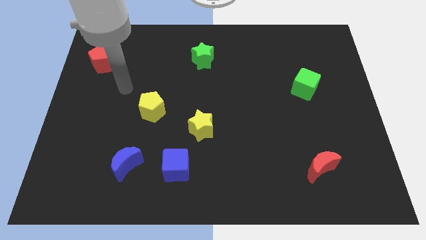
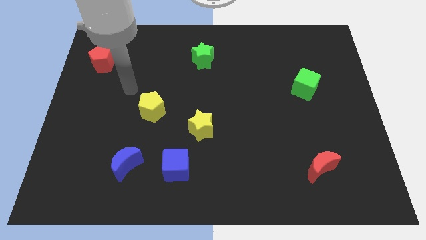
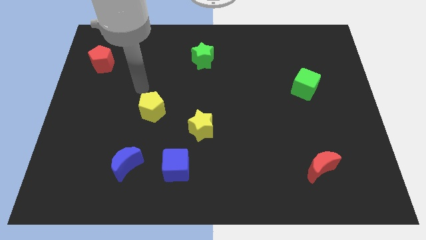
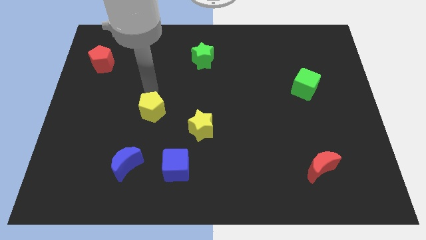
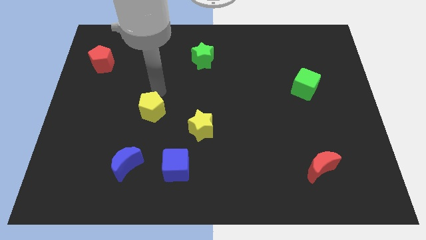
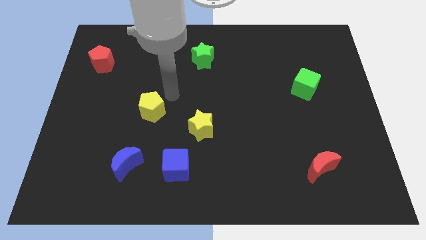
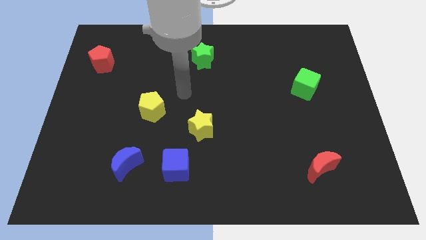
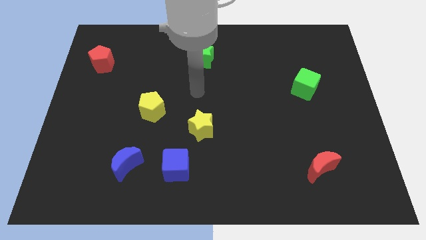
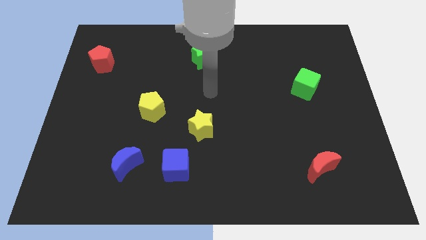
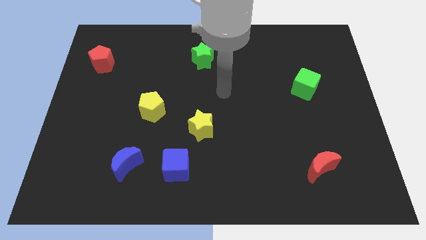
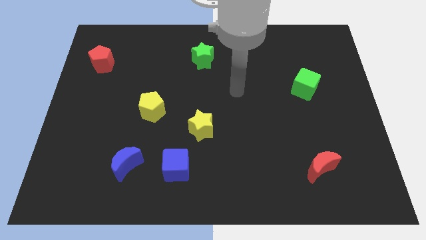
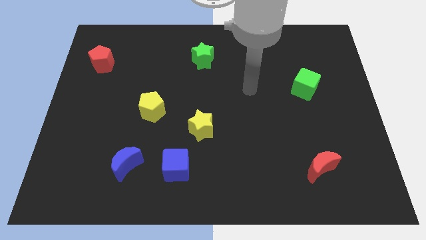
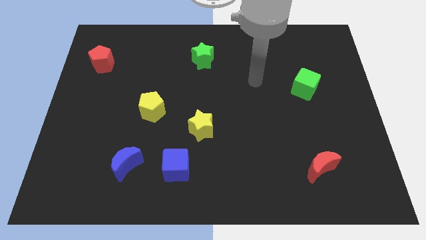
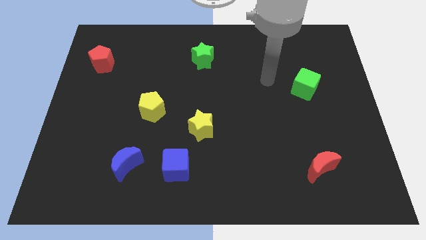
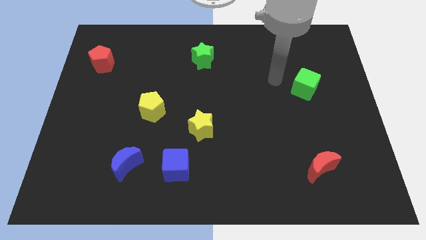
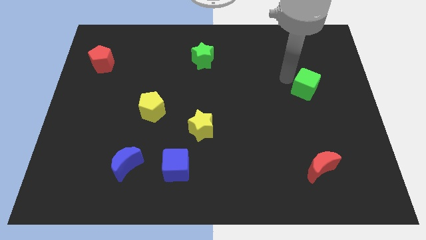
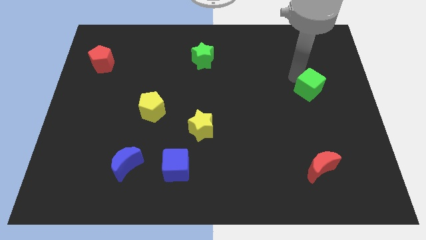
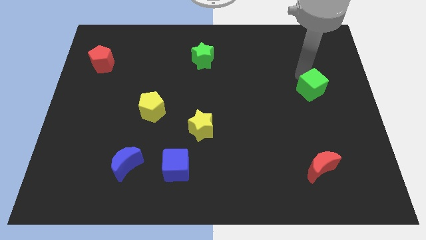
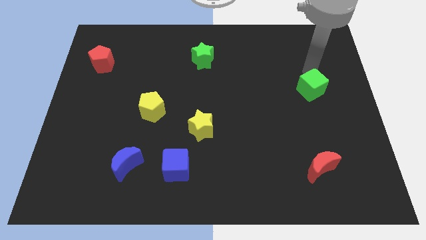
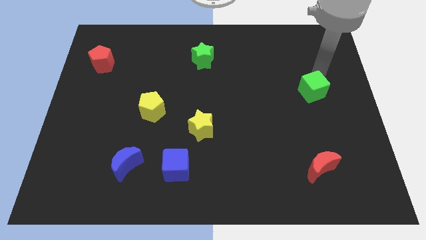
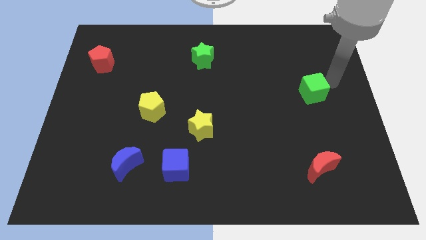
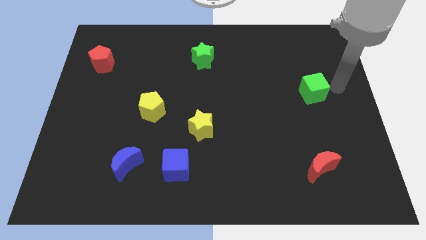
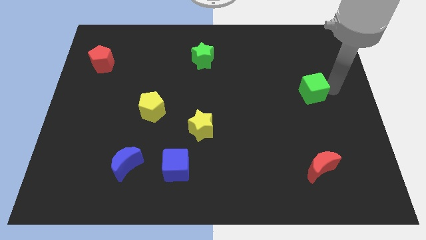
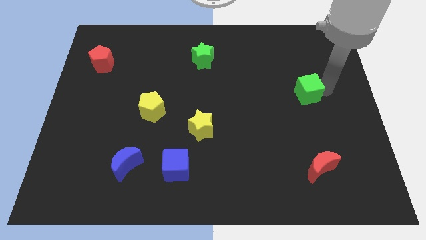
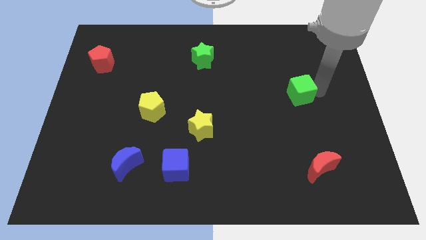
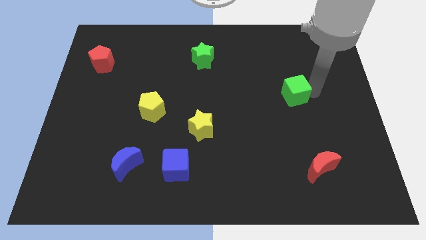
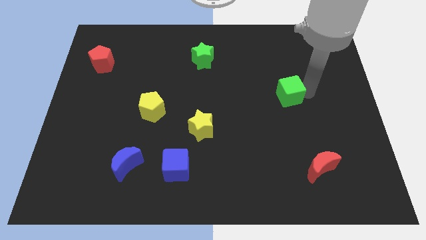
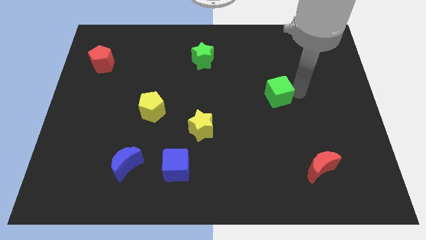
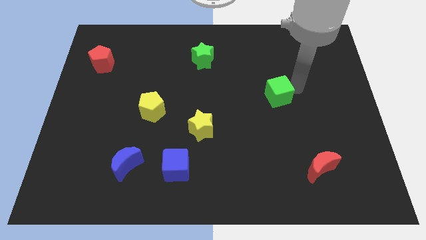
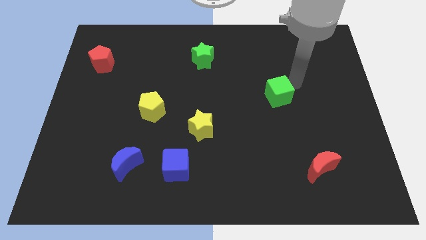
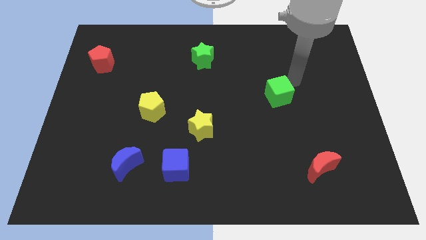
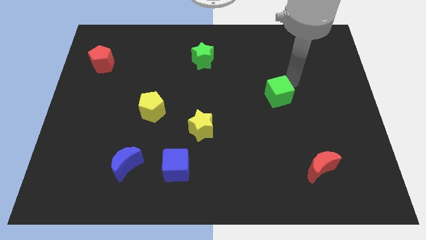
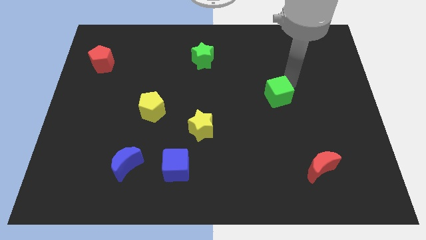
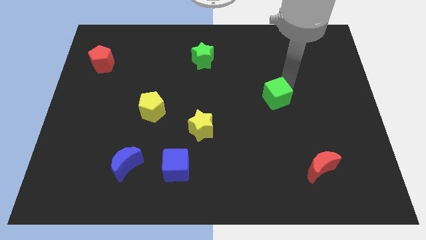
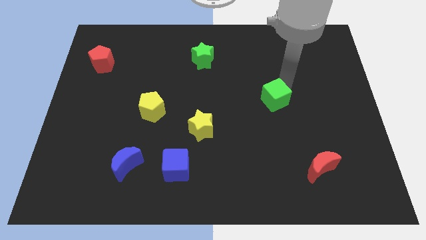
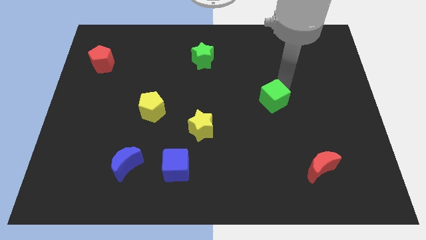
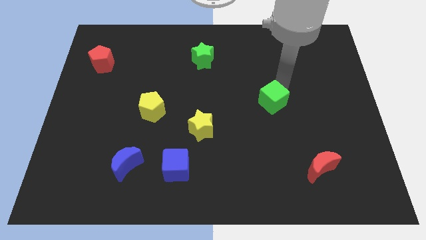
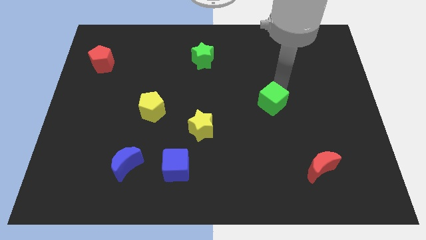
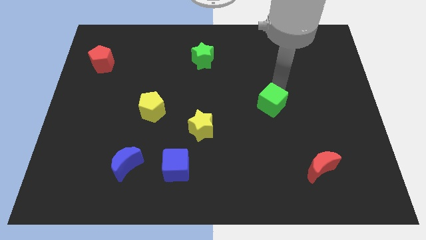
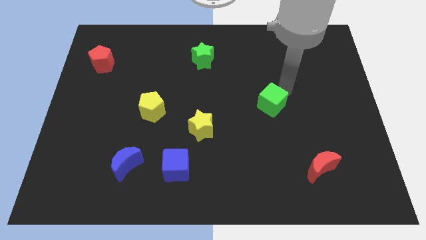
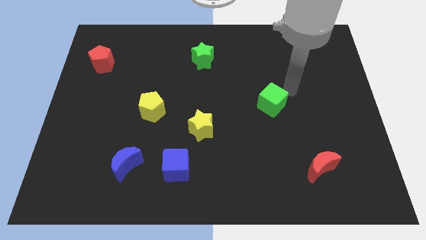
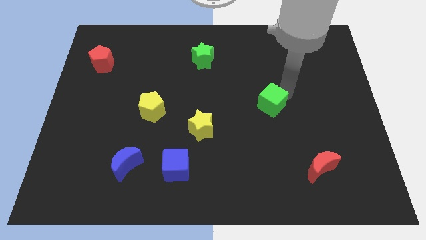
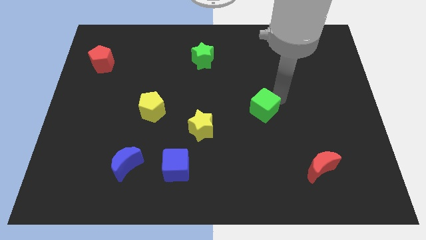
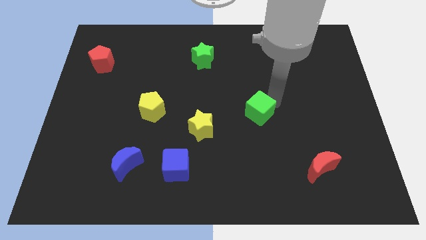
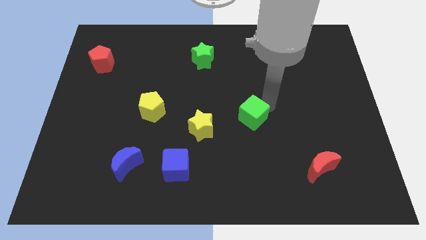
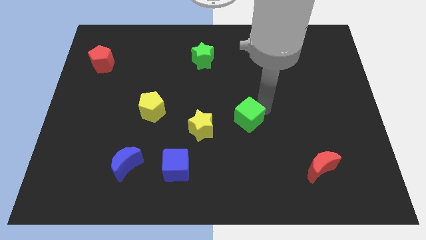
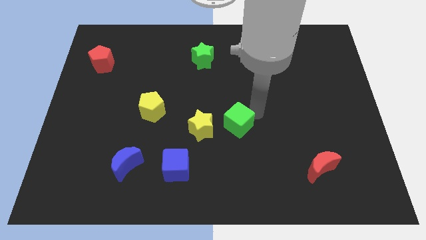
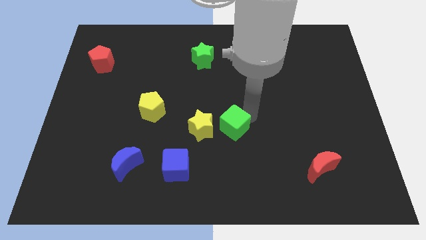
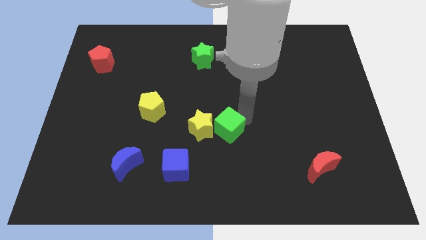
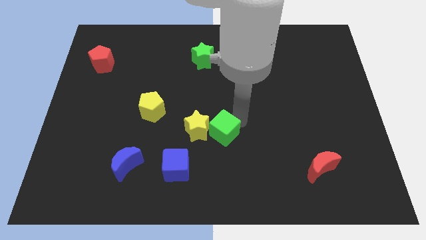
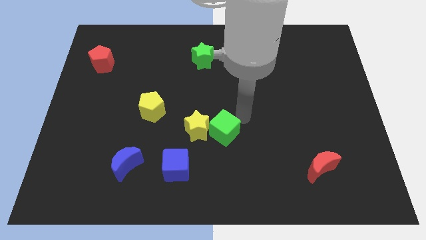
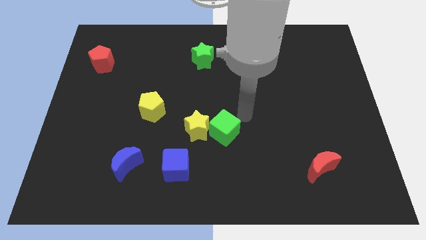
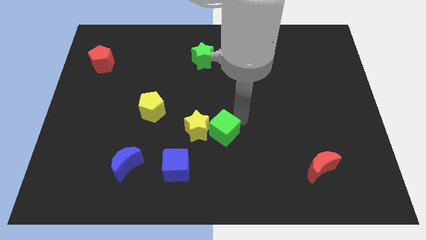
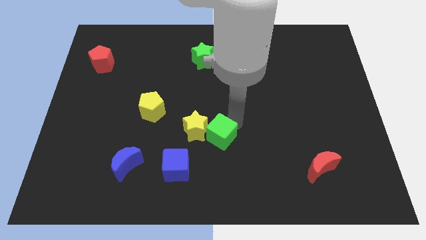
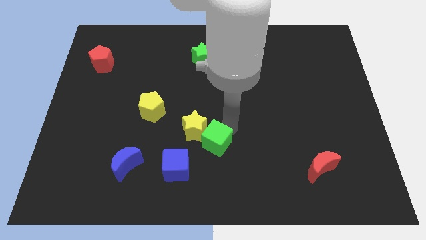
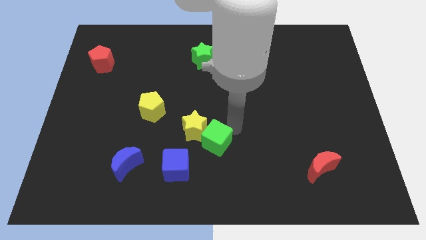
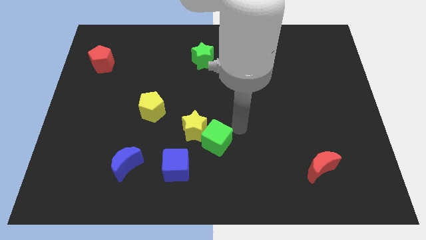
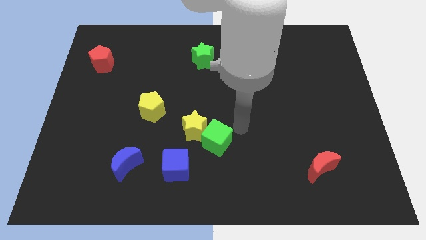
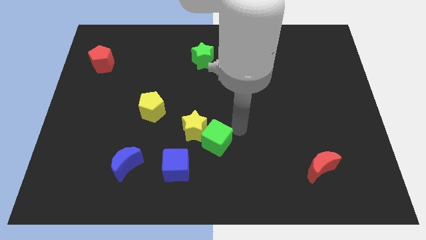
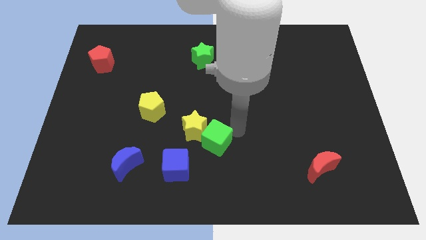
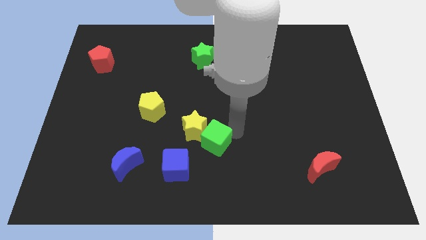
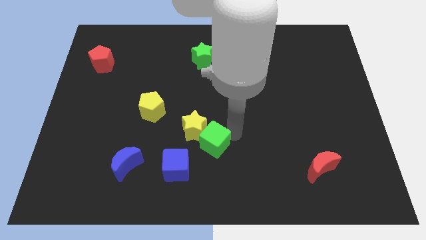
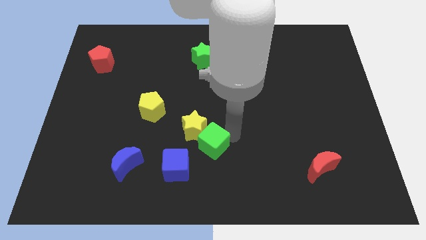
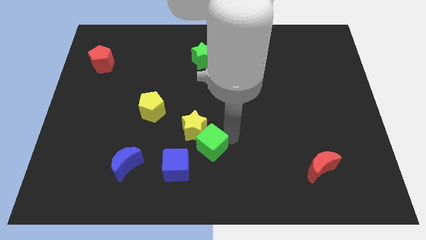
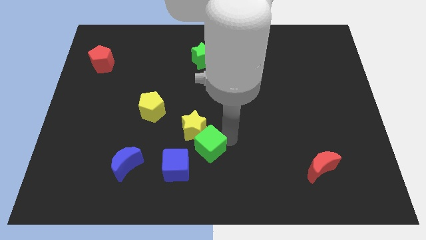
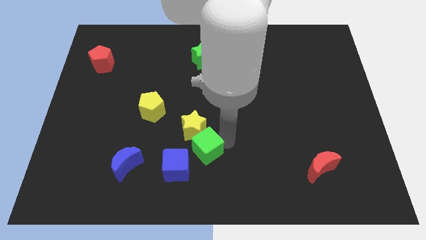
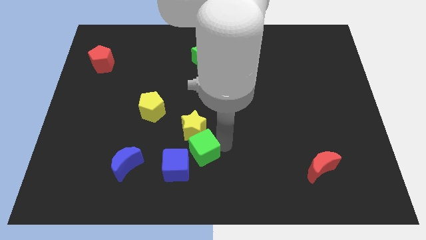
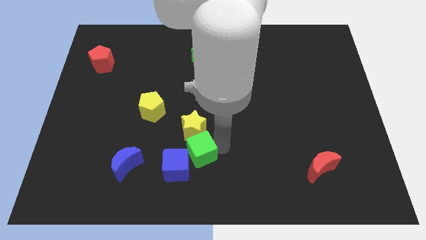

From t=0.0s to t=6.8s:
slide the green cube next to the blue cube
